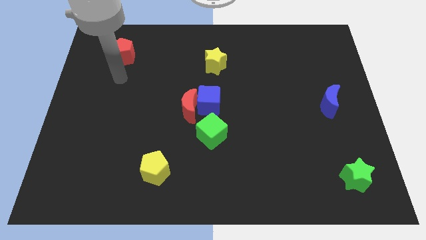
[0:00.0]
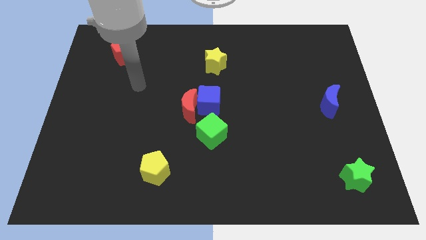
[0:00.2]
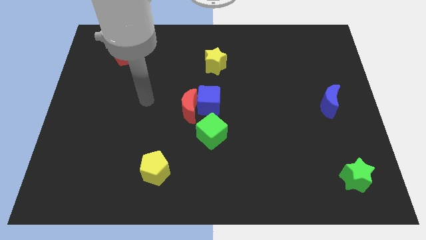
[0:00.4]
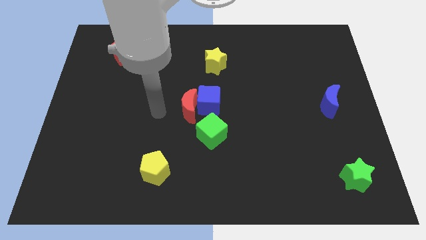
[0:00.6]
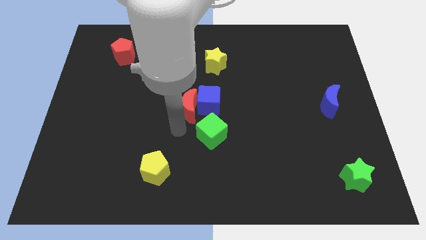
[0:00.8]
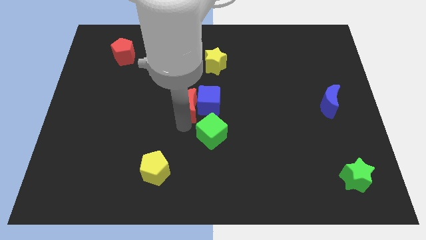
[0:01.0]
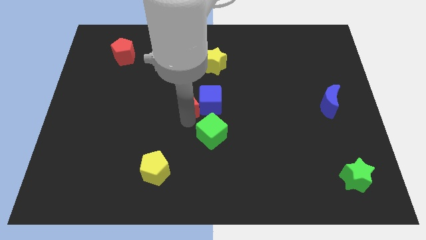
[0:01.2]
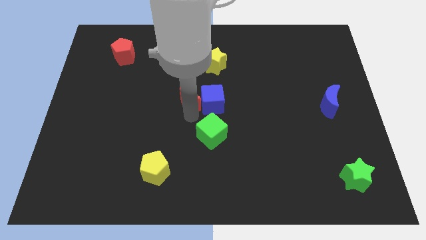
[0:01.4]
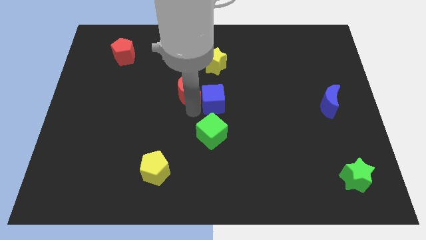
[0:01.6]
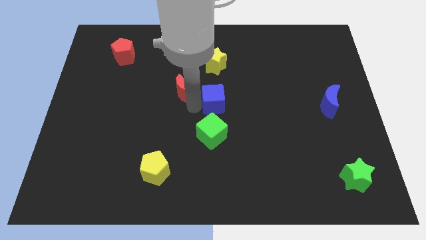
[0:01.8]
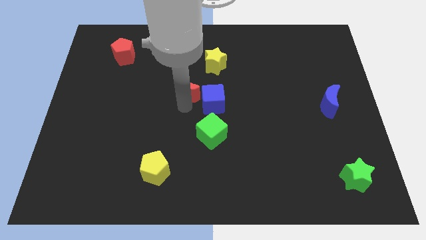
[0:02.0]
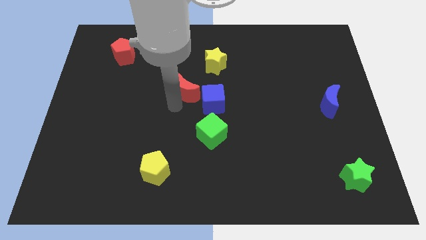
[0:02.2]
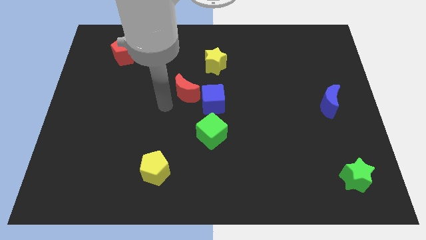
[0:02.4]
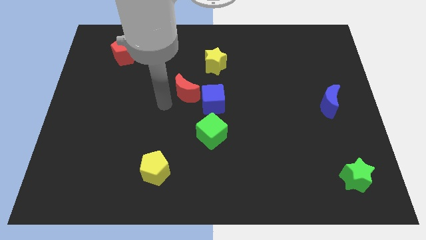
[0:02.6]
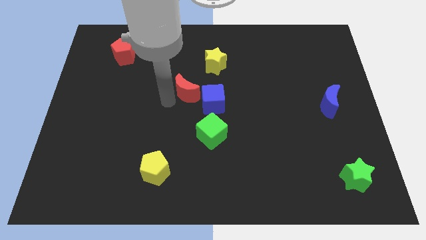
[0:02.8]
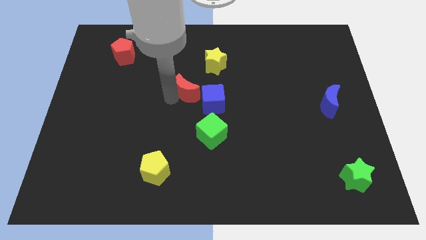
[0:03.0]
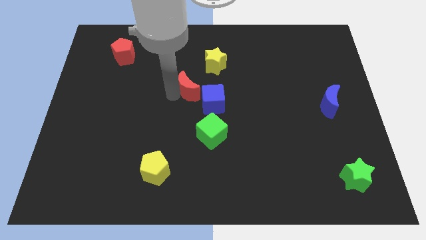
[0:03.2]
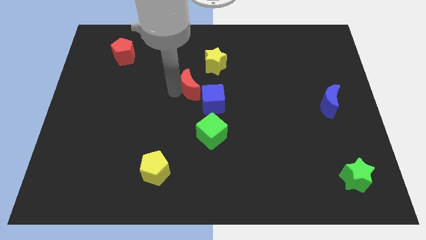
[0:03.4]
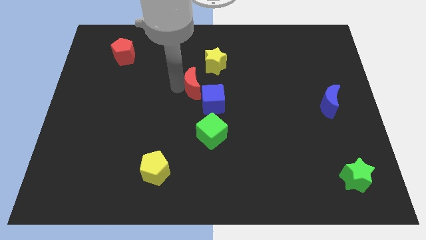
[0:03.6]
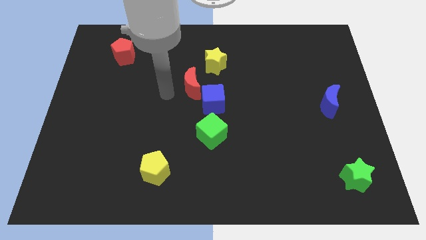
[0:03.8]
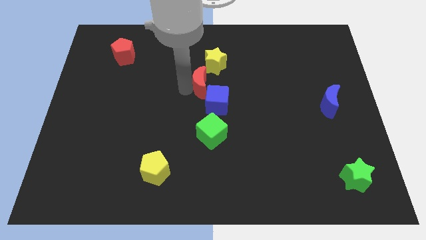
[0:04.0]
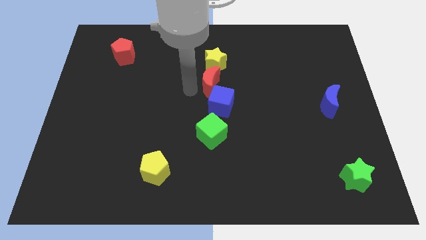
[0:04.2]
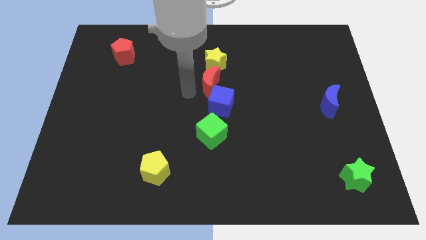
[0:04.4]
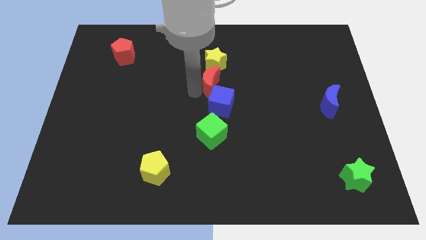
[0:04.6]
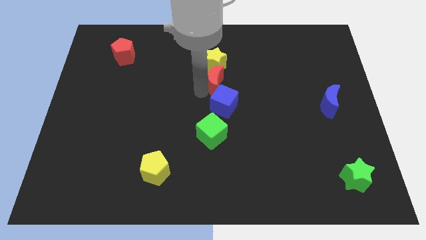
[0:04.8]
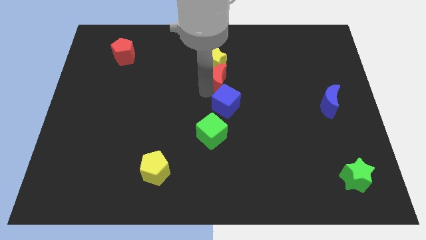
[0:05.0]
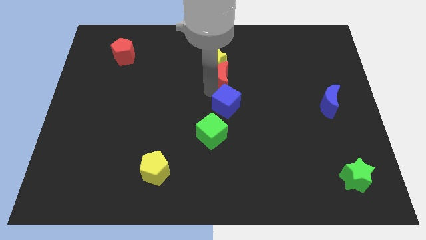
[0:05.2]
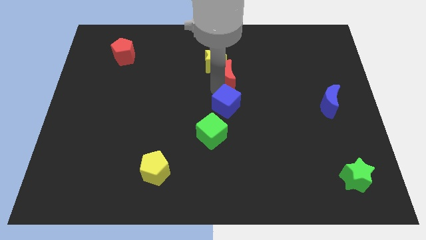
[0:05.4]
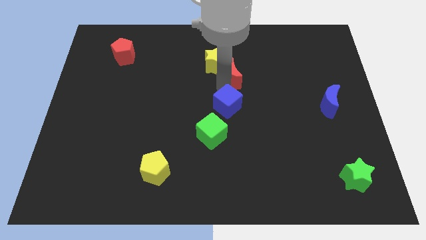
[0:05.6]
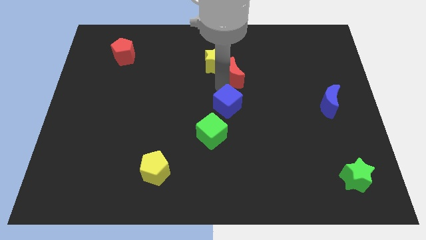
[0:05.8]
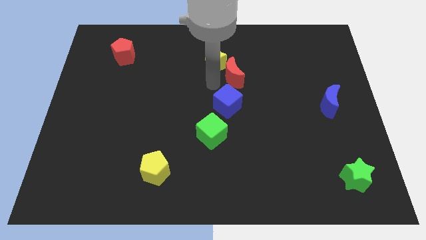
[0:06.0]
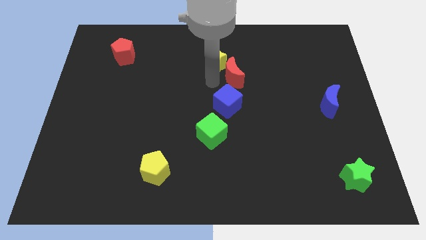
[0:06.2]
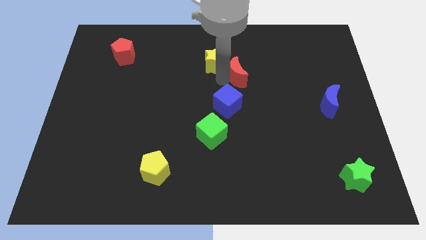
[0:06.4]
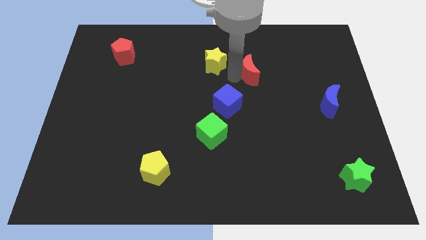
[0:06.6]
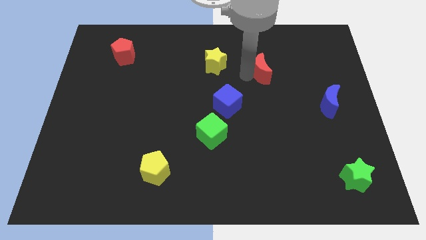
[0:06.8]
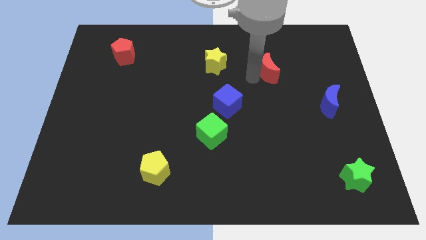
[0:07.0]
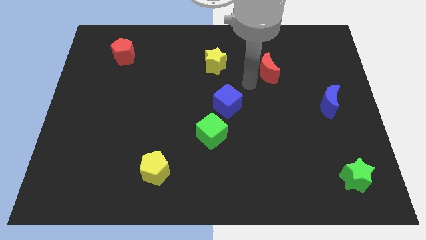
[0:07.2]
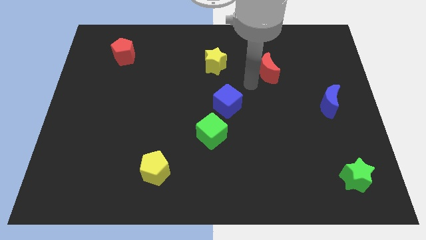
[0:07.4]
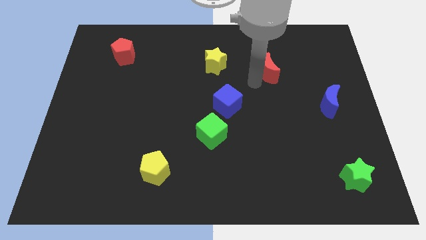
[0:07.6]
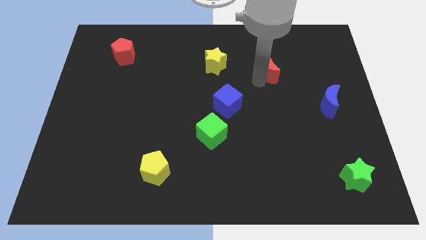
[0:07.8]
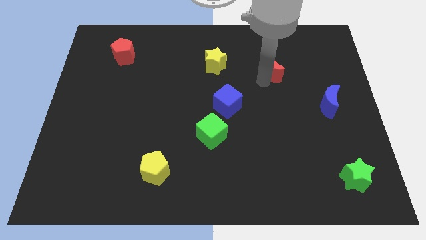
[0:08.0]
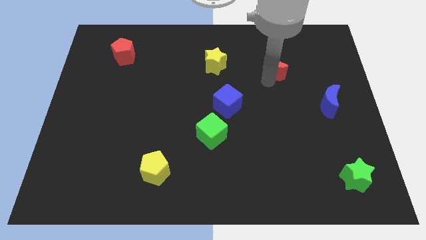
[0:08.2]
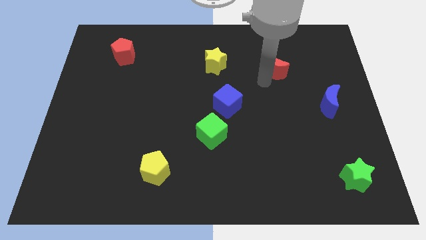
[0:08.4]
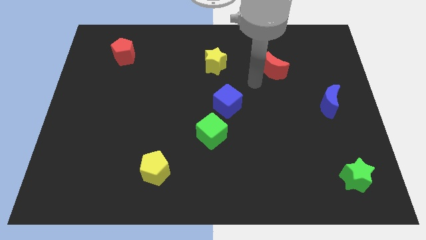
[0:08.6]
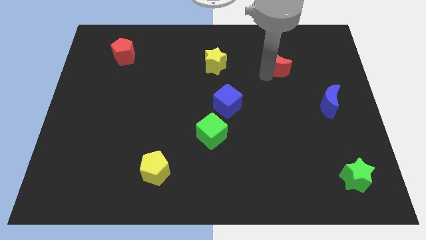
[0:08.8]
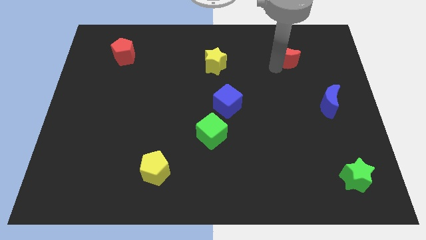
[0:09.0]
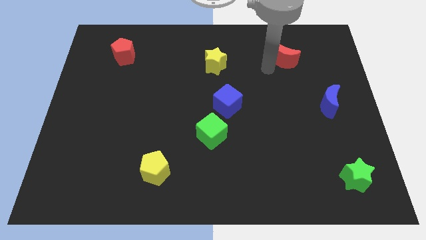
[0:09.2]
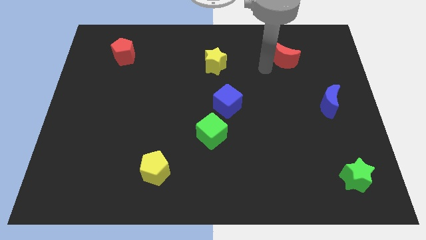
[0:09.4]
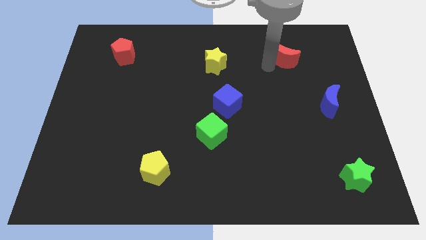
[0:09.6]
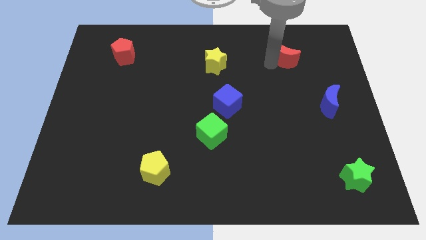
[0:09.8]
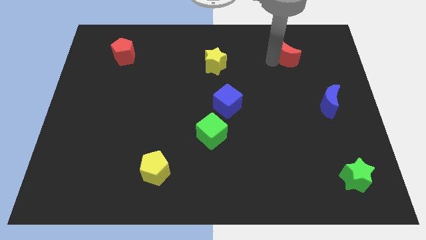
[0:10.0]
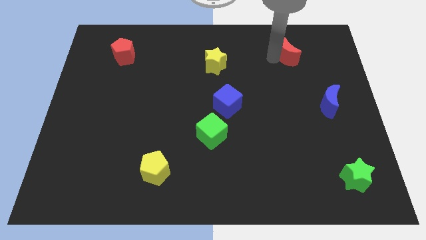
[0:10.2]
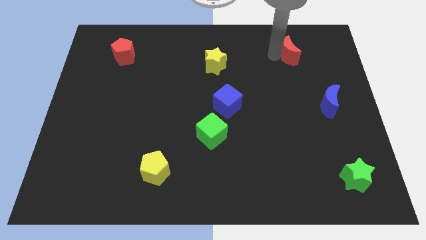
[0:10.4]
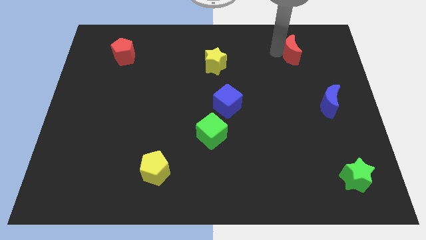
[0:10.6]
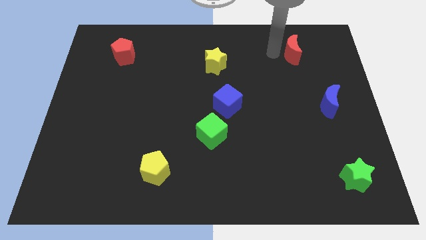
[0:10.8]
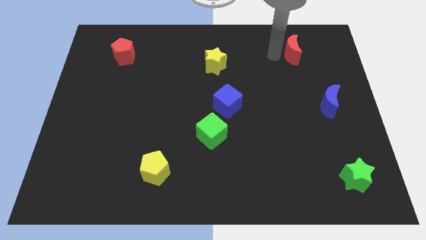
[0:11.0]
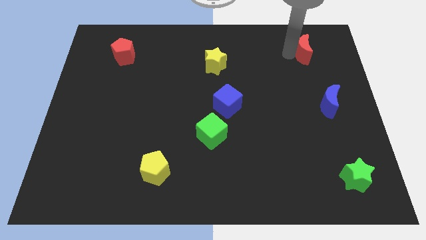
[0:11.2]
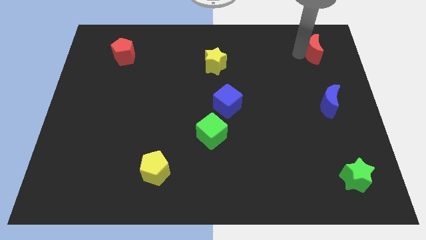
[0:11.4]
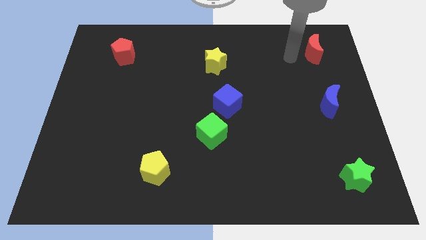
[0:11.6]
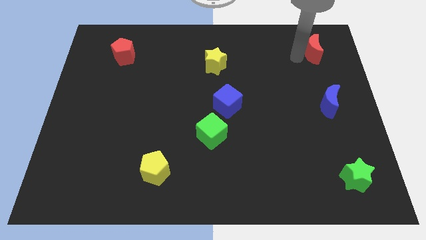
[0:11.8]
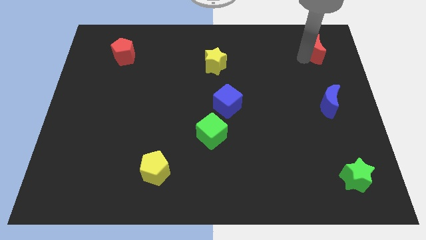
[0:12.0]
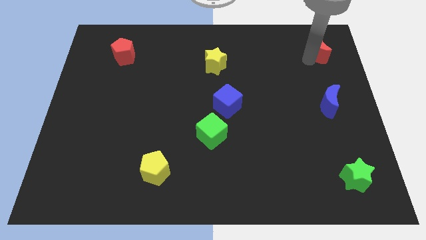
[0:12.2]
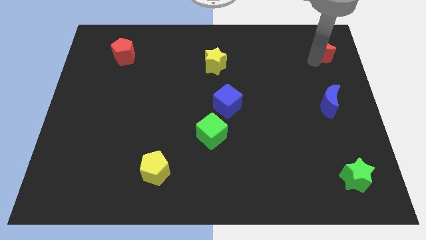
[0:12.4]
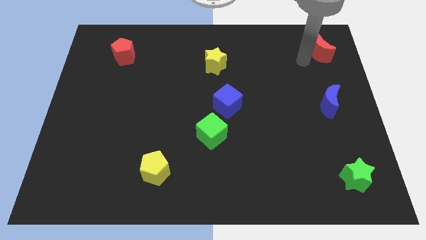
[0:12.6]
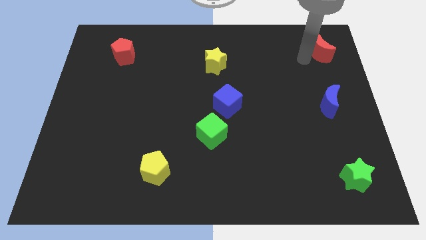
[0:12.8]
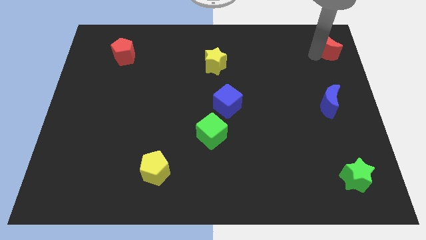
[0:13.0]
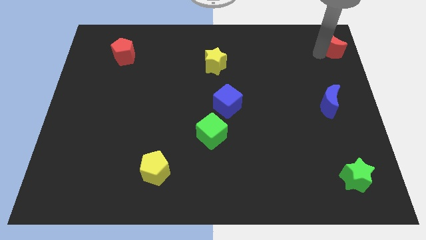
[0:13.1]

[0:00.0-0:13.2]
put the red moon to the top right

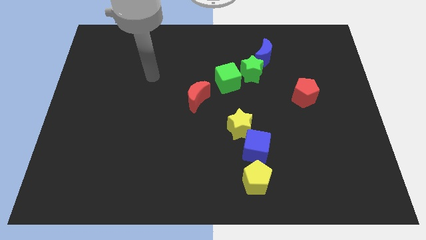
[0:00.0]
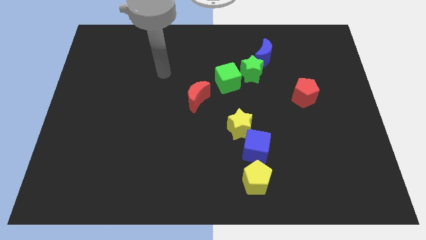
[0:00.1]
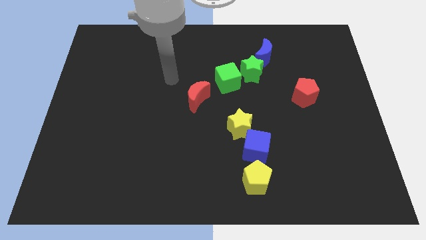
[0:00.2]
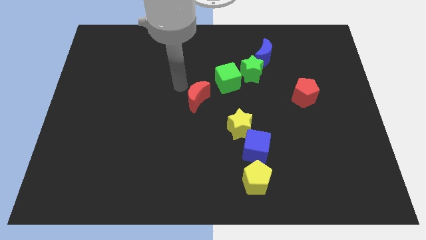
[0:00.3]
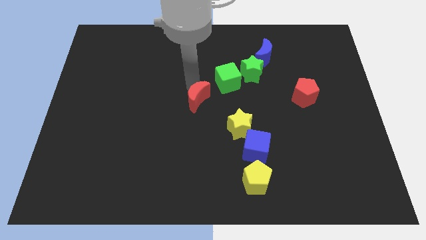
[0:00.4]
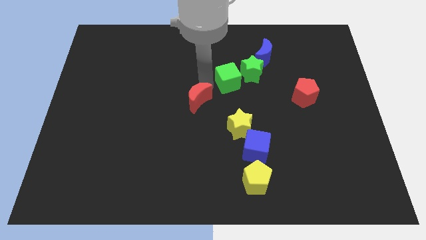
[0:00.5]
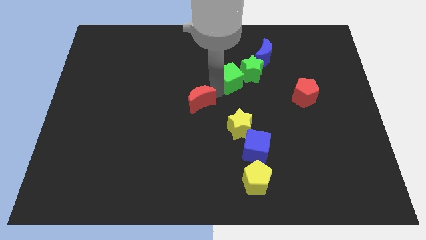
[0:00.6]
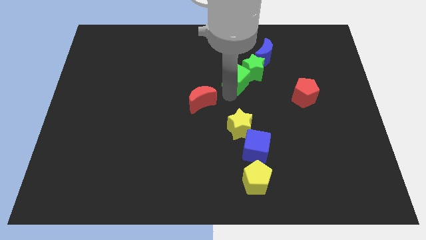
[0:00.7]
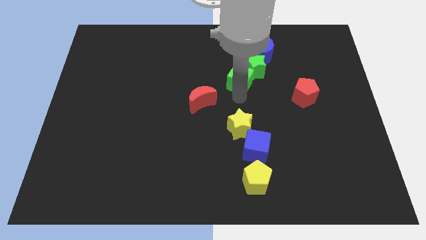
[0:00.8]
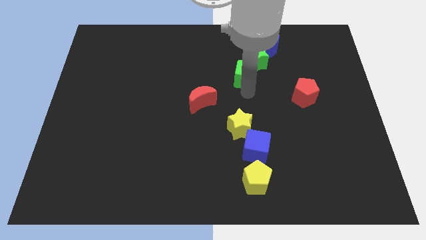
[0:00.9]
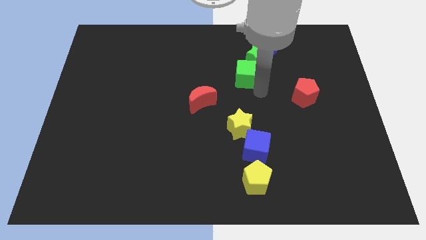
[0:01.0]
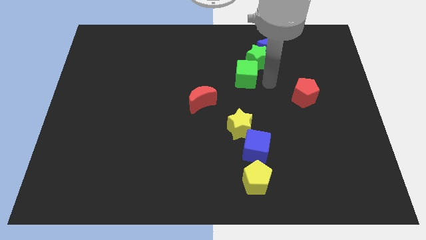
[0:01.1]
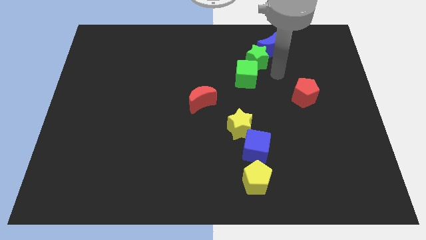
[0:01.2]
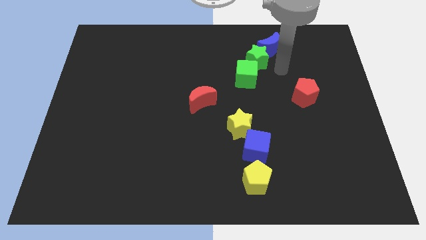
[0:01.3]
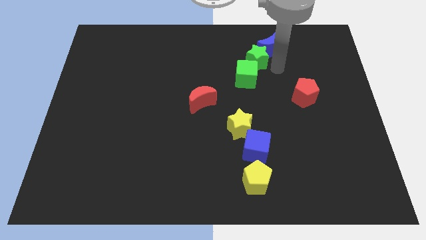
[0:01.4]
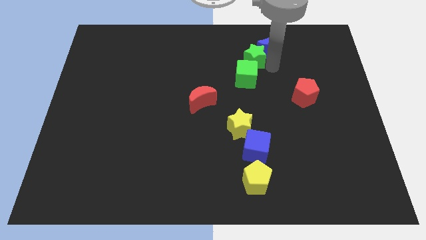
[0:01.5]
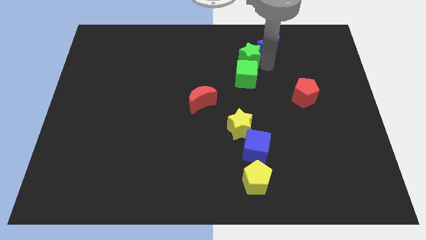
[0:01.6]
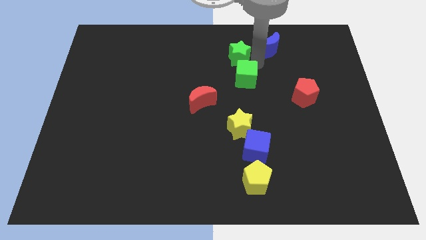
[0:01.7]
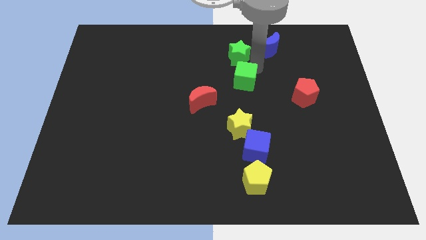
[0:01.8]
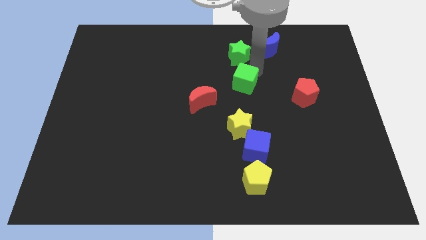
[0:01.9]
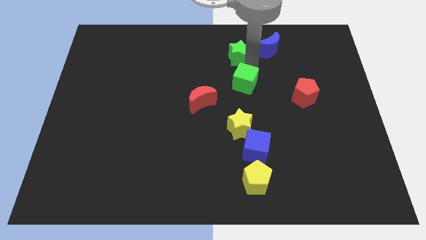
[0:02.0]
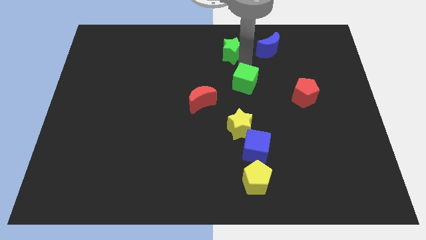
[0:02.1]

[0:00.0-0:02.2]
slide the green star to the top side
